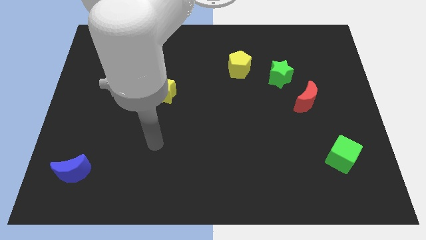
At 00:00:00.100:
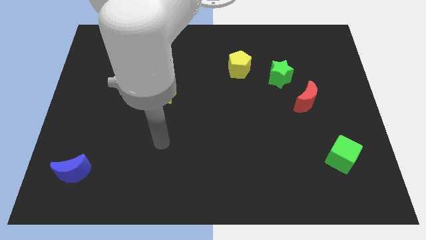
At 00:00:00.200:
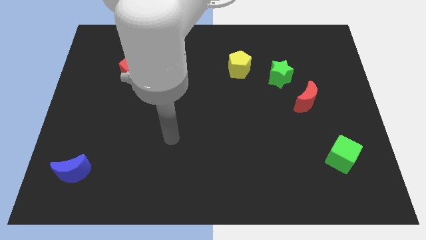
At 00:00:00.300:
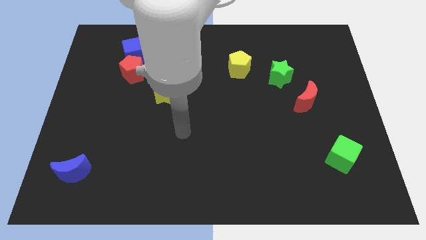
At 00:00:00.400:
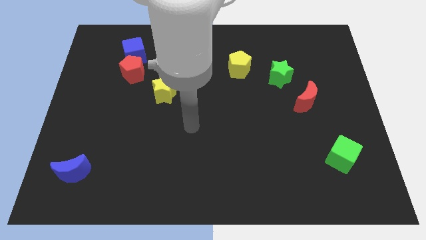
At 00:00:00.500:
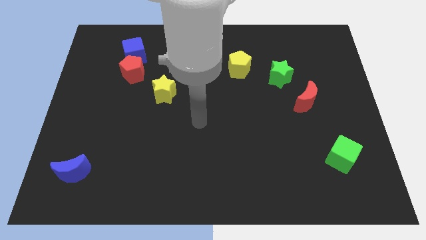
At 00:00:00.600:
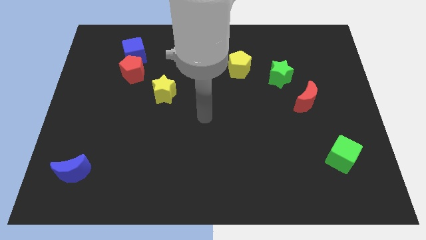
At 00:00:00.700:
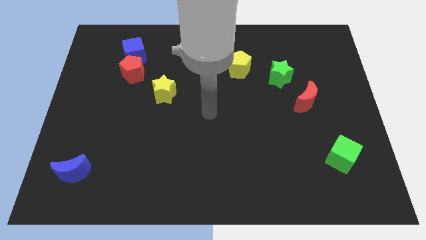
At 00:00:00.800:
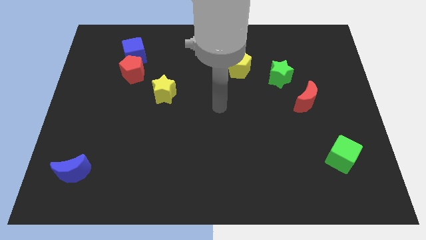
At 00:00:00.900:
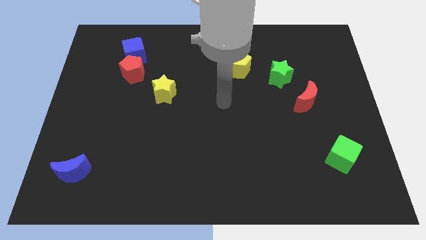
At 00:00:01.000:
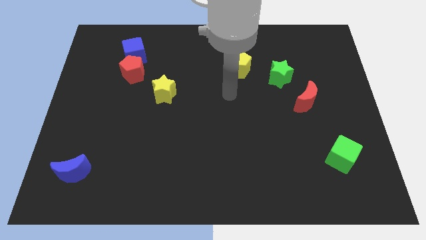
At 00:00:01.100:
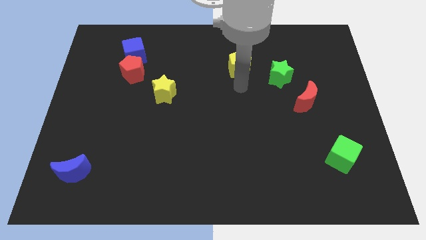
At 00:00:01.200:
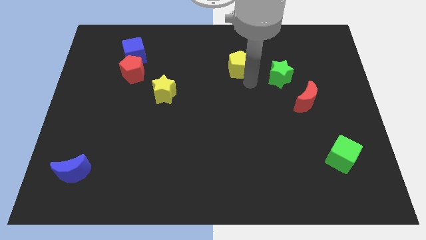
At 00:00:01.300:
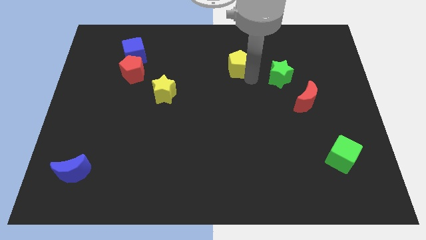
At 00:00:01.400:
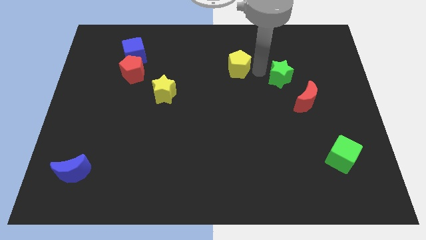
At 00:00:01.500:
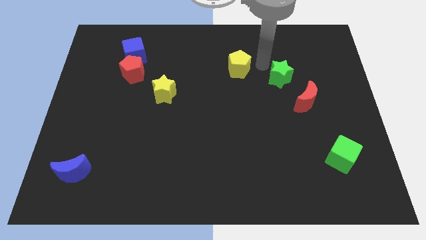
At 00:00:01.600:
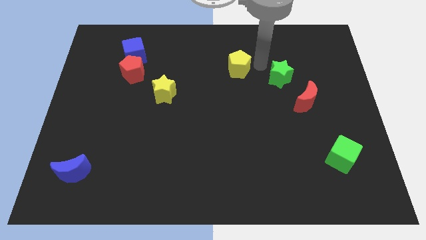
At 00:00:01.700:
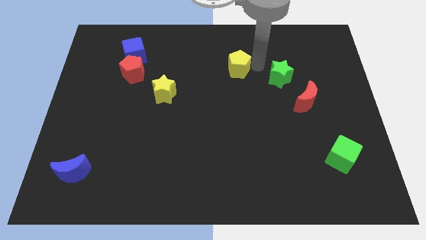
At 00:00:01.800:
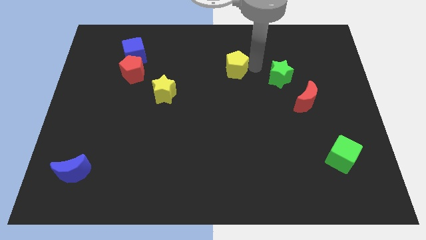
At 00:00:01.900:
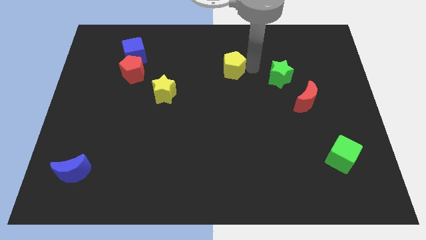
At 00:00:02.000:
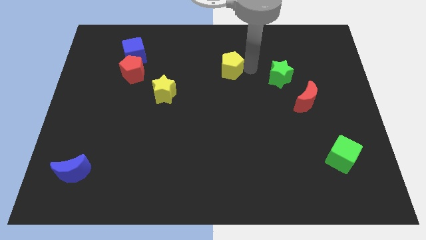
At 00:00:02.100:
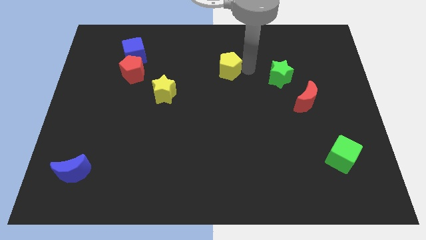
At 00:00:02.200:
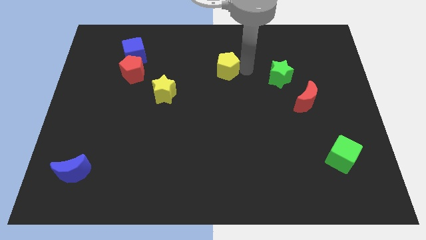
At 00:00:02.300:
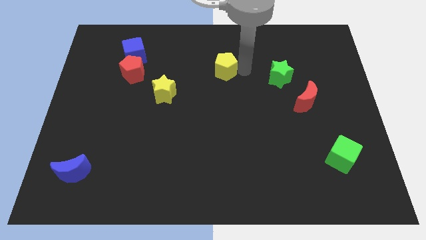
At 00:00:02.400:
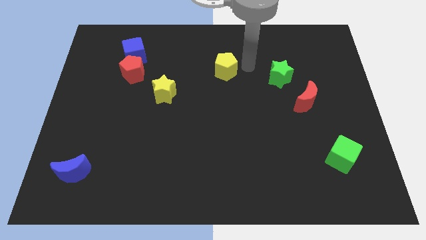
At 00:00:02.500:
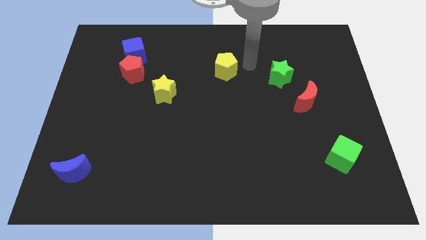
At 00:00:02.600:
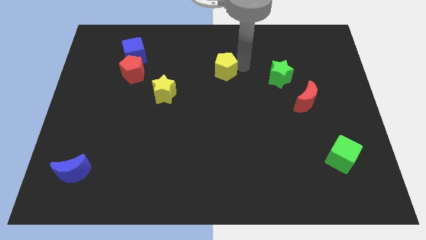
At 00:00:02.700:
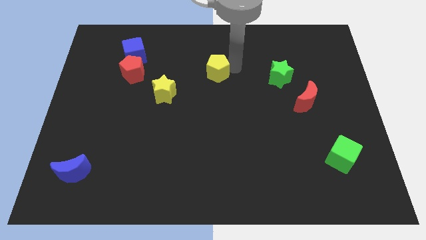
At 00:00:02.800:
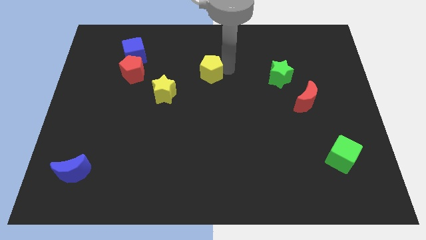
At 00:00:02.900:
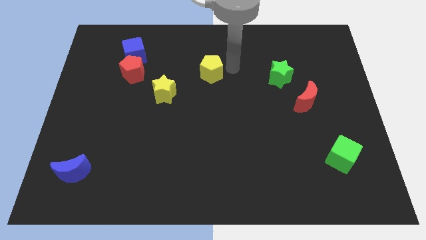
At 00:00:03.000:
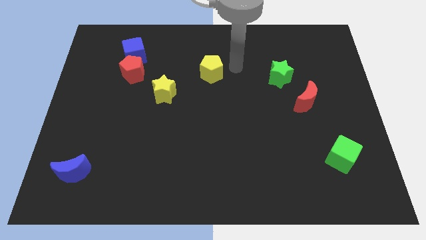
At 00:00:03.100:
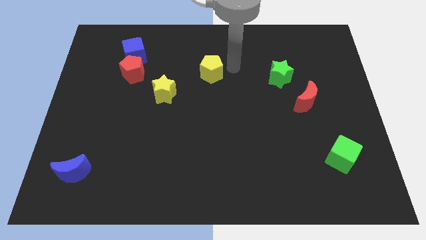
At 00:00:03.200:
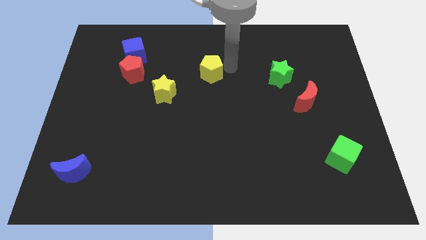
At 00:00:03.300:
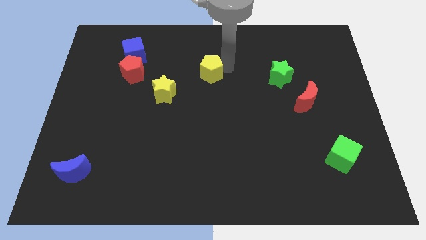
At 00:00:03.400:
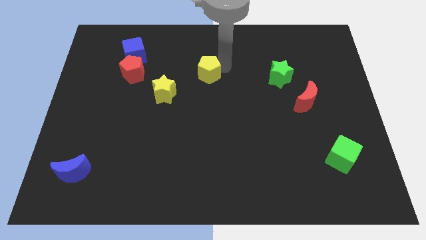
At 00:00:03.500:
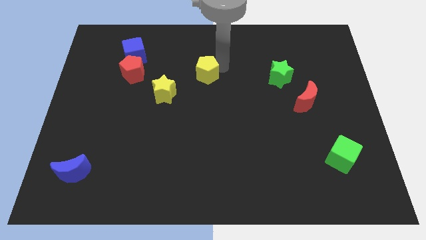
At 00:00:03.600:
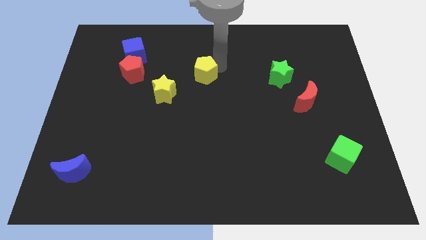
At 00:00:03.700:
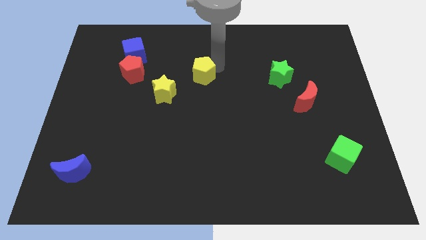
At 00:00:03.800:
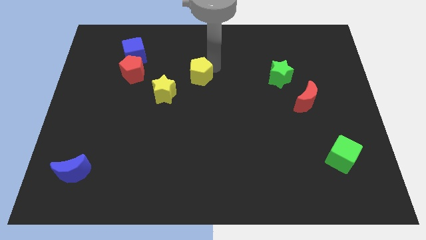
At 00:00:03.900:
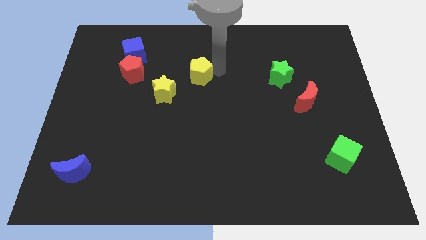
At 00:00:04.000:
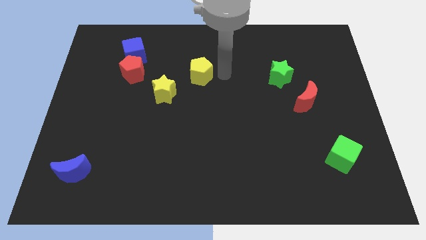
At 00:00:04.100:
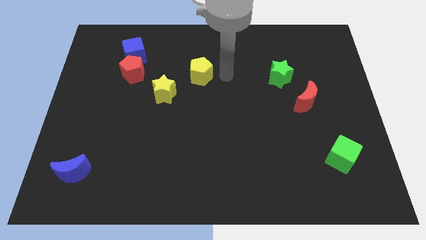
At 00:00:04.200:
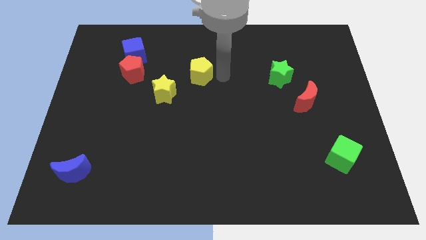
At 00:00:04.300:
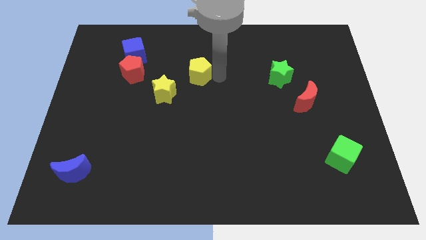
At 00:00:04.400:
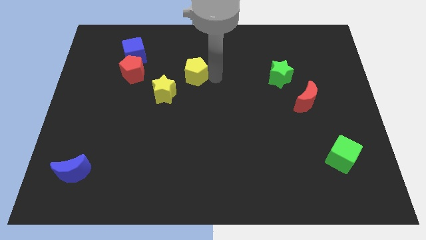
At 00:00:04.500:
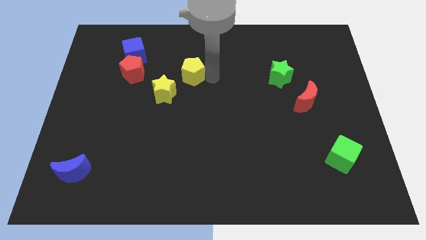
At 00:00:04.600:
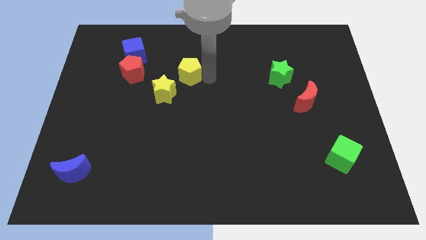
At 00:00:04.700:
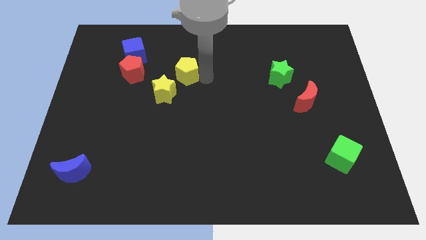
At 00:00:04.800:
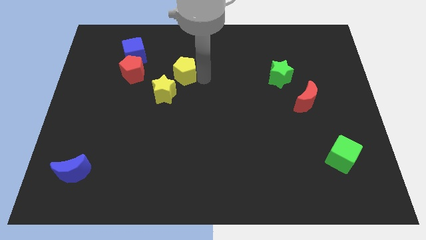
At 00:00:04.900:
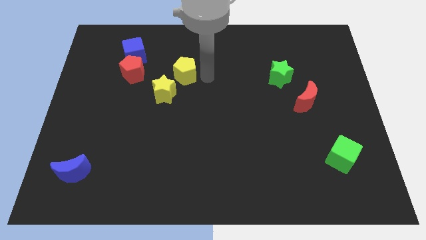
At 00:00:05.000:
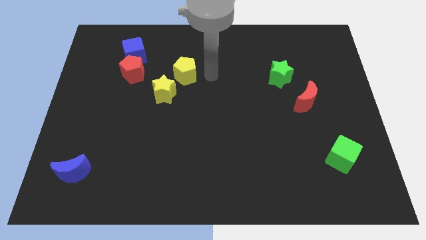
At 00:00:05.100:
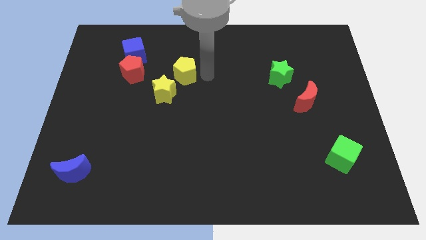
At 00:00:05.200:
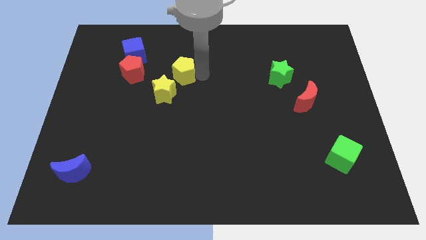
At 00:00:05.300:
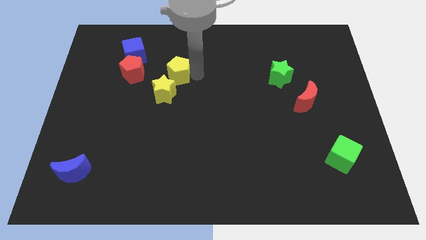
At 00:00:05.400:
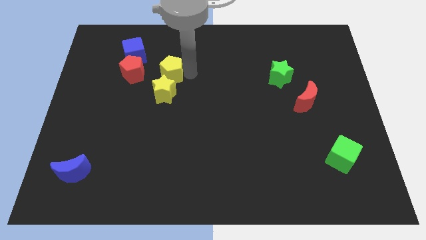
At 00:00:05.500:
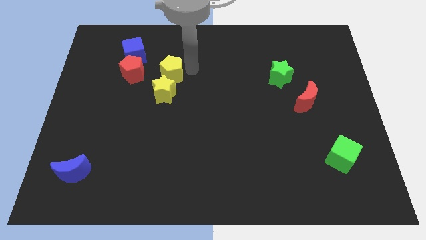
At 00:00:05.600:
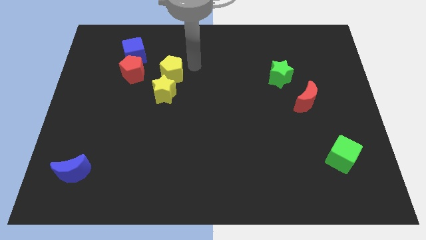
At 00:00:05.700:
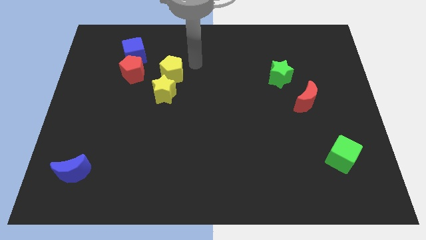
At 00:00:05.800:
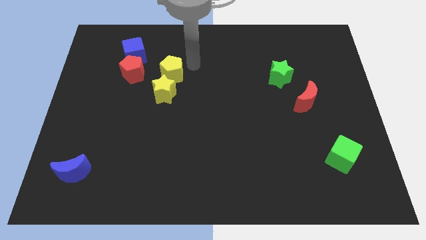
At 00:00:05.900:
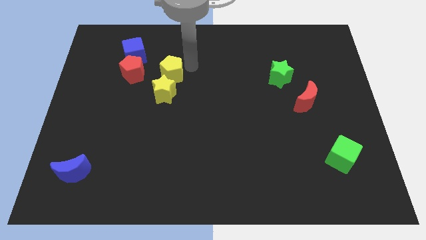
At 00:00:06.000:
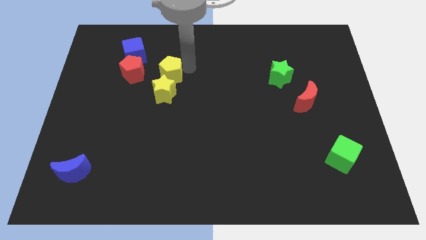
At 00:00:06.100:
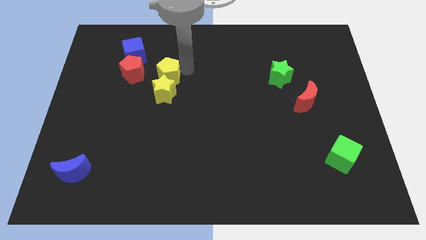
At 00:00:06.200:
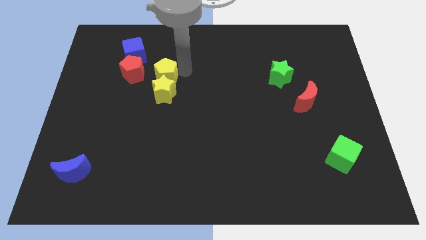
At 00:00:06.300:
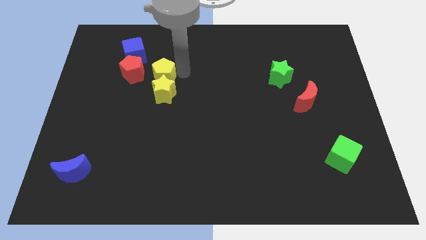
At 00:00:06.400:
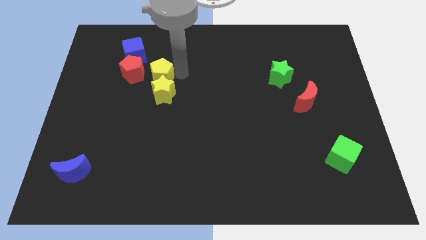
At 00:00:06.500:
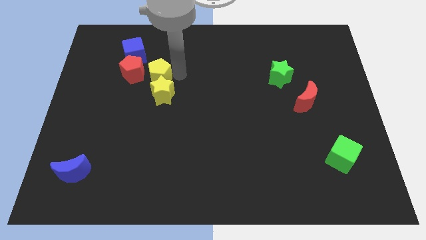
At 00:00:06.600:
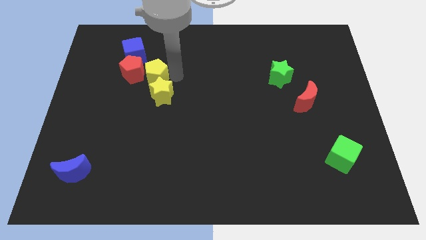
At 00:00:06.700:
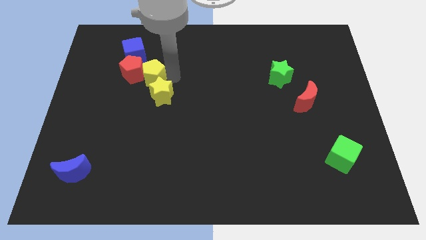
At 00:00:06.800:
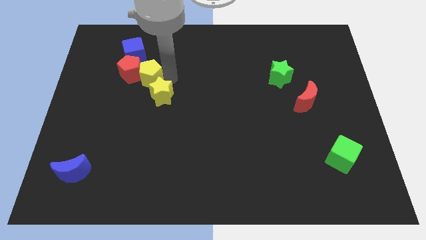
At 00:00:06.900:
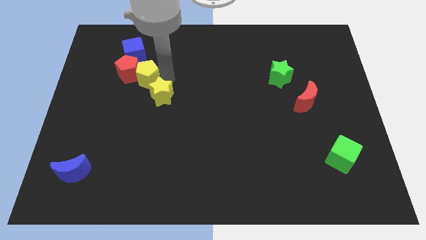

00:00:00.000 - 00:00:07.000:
move the yellow pentagon to the bottom side of the blue cube

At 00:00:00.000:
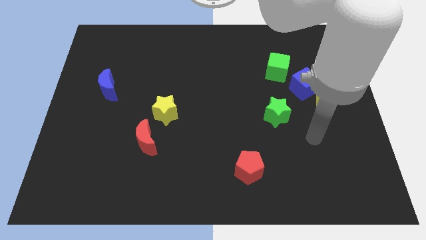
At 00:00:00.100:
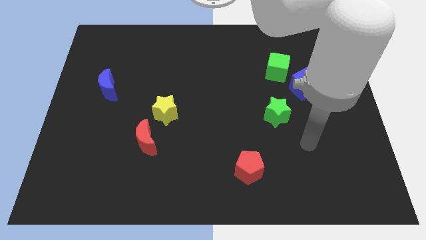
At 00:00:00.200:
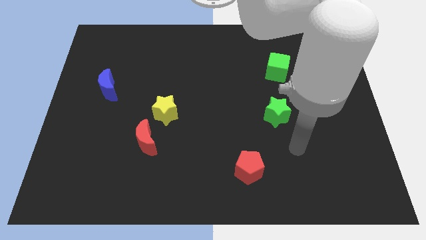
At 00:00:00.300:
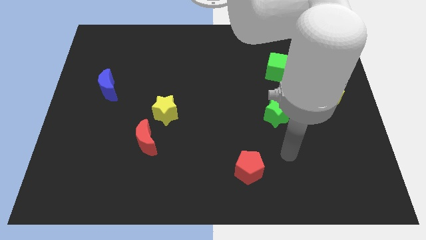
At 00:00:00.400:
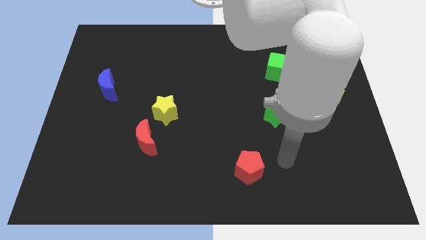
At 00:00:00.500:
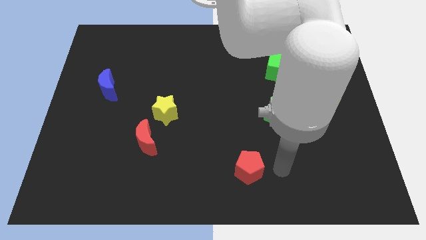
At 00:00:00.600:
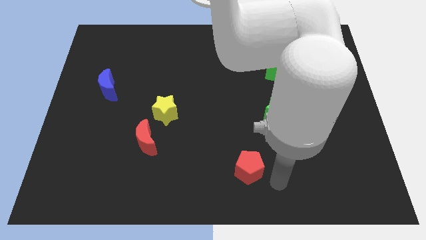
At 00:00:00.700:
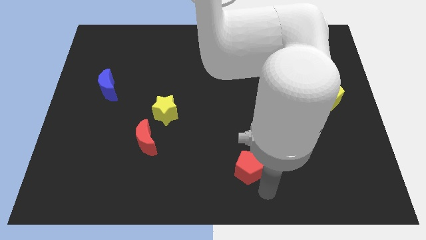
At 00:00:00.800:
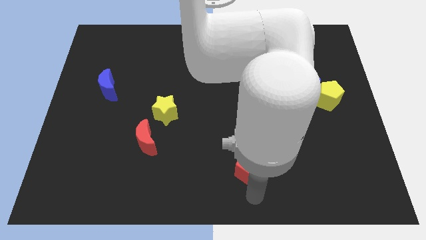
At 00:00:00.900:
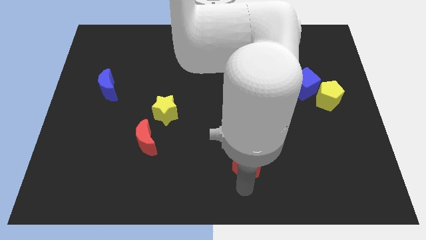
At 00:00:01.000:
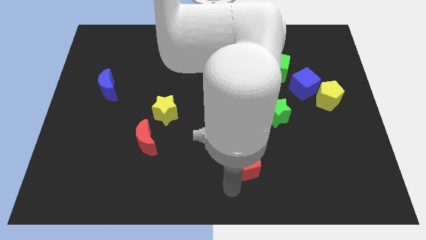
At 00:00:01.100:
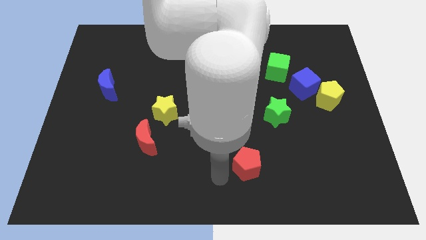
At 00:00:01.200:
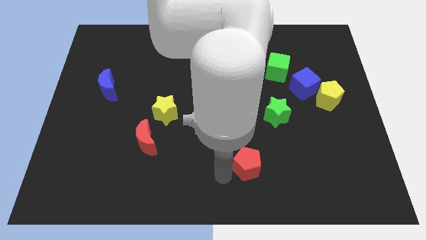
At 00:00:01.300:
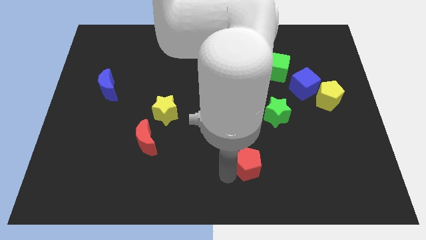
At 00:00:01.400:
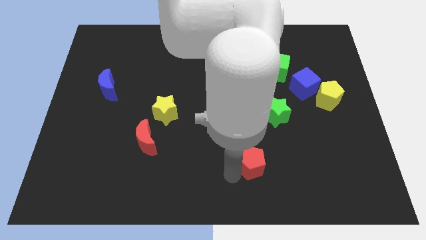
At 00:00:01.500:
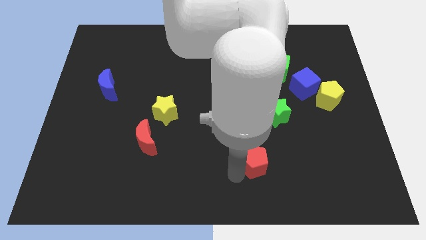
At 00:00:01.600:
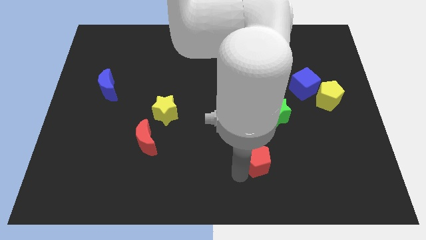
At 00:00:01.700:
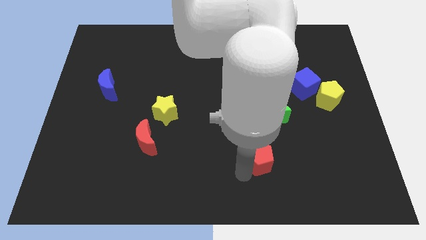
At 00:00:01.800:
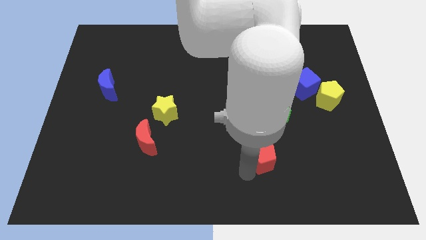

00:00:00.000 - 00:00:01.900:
put the red pentagon to the bottom of the green star
